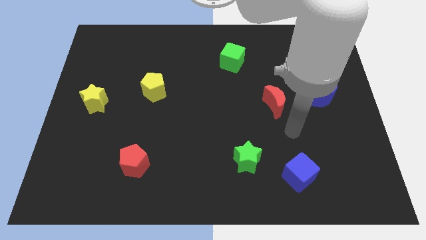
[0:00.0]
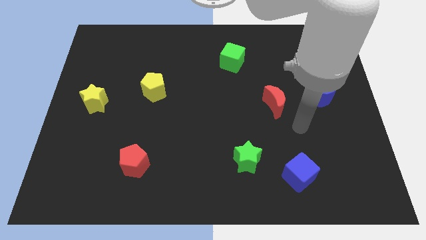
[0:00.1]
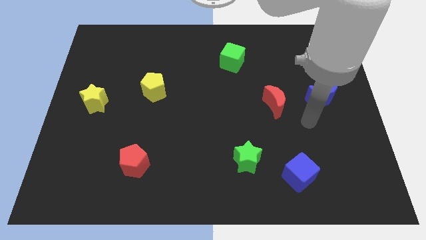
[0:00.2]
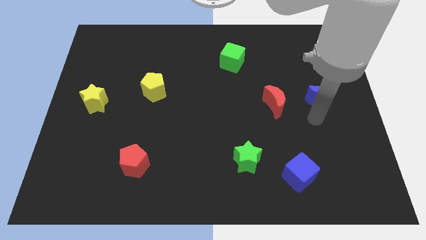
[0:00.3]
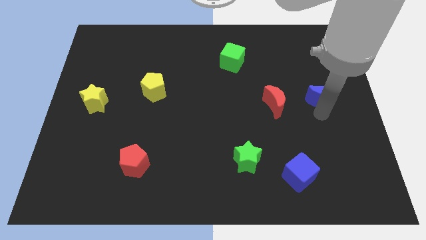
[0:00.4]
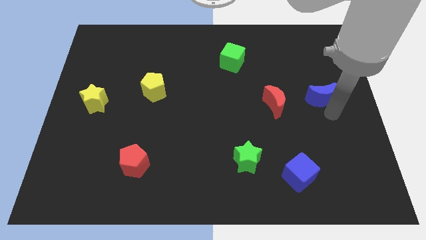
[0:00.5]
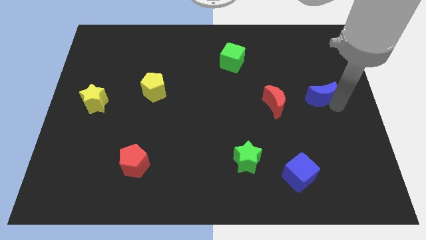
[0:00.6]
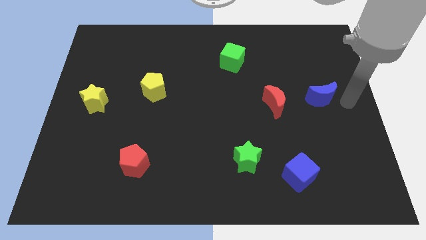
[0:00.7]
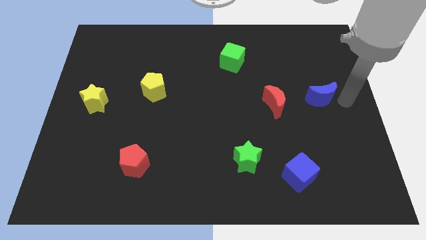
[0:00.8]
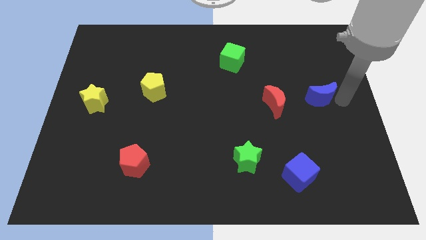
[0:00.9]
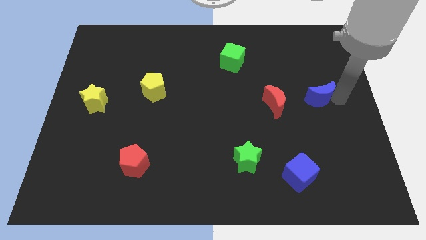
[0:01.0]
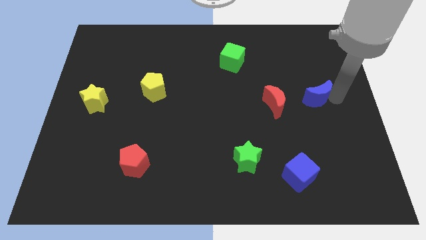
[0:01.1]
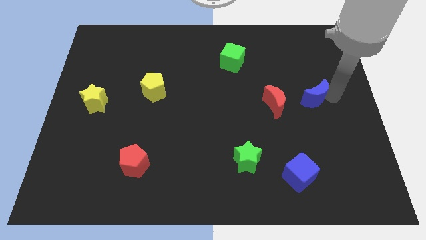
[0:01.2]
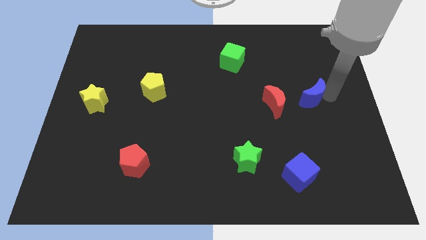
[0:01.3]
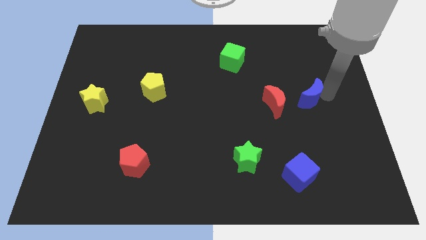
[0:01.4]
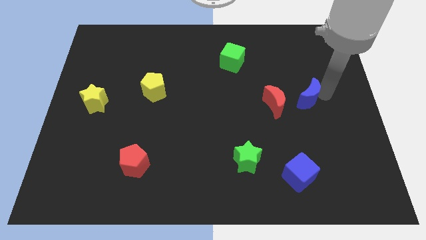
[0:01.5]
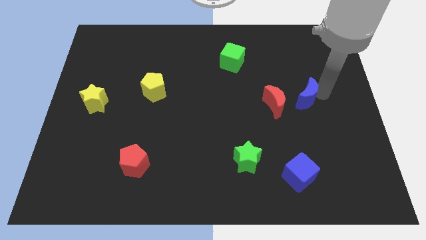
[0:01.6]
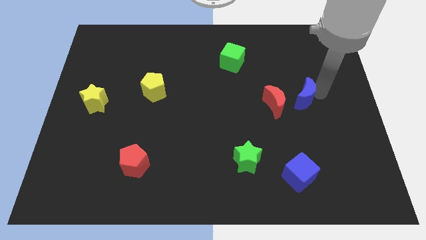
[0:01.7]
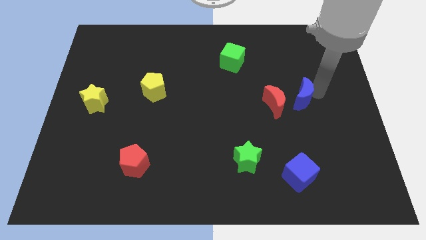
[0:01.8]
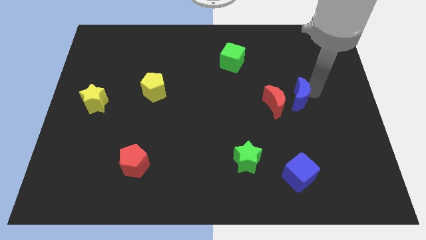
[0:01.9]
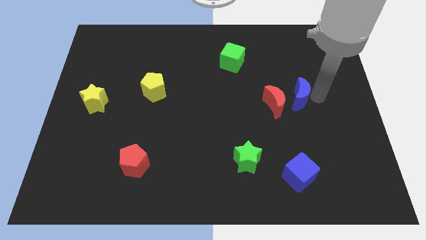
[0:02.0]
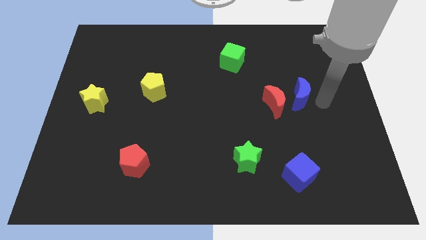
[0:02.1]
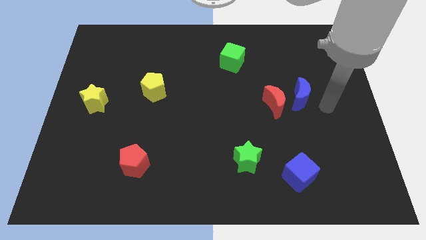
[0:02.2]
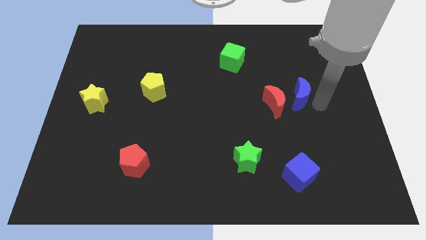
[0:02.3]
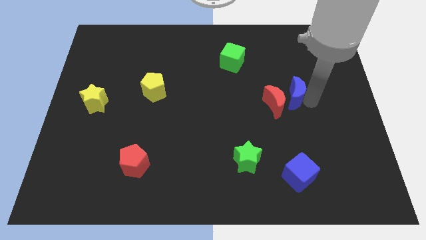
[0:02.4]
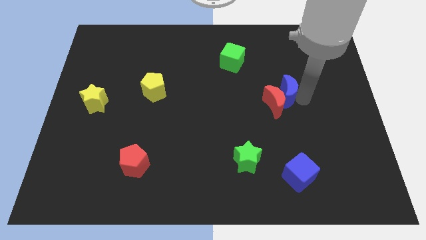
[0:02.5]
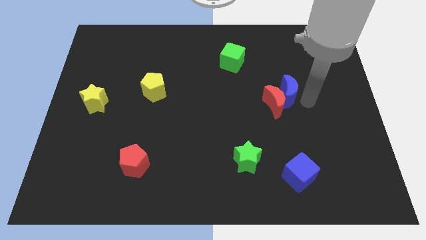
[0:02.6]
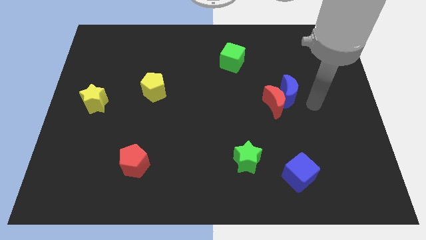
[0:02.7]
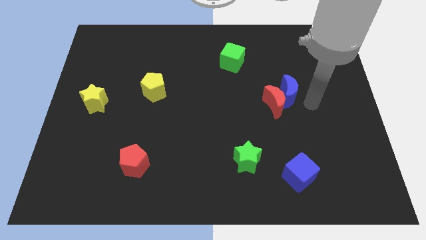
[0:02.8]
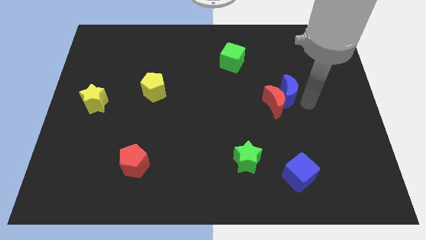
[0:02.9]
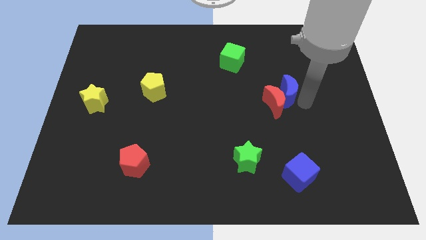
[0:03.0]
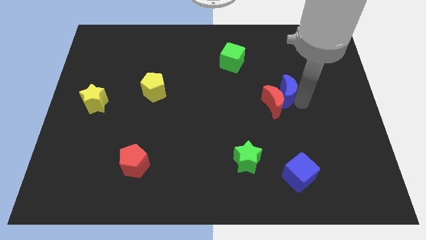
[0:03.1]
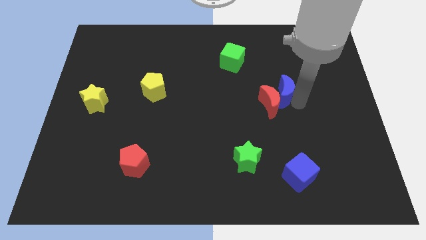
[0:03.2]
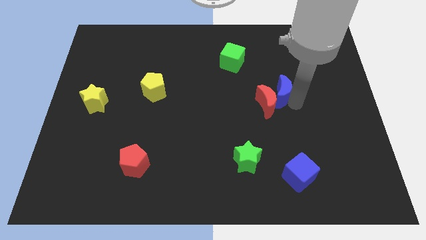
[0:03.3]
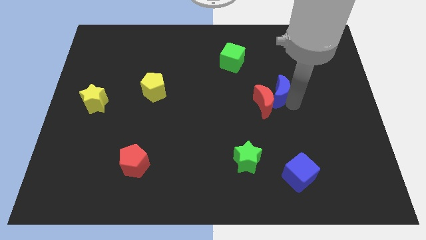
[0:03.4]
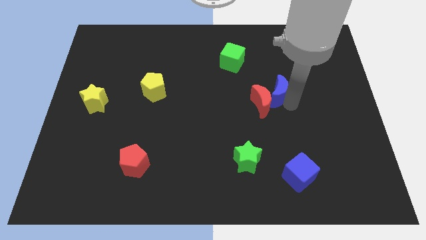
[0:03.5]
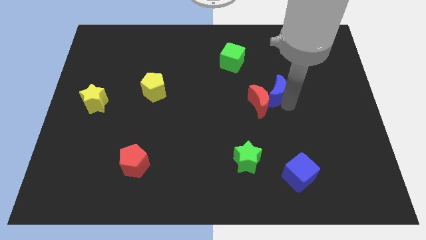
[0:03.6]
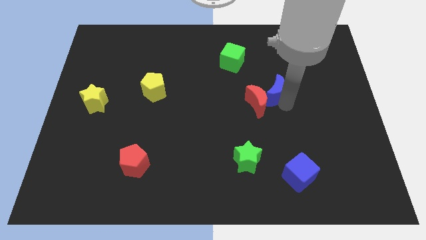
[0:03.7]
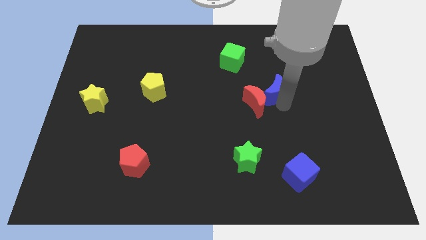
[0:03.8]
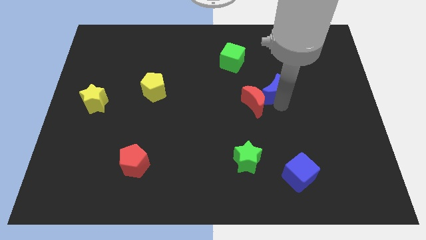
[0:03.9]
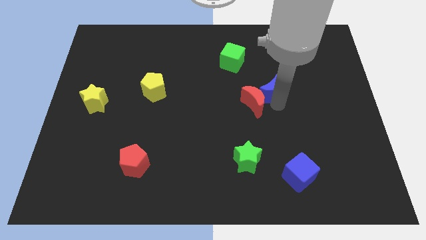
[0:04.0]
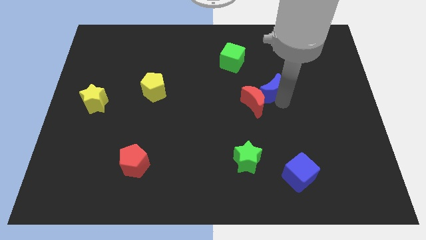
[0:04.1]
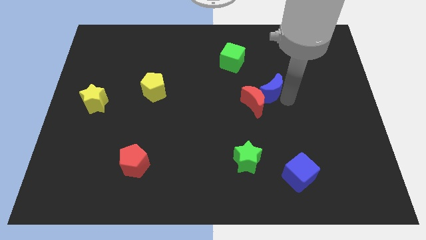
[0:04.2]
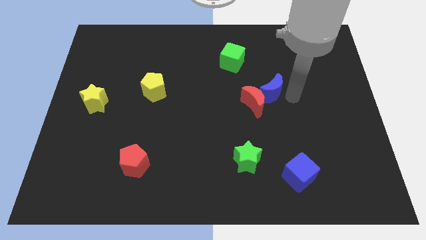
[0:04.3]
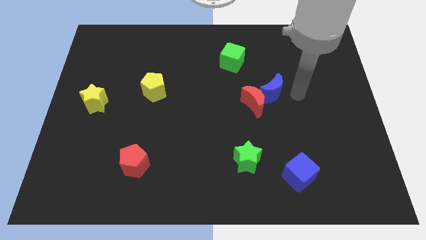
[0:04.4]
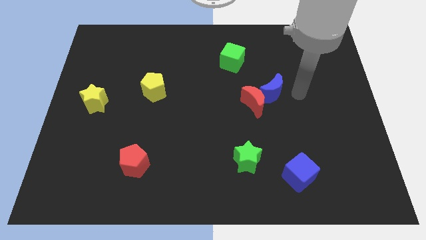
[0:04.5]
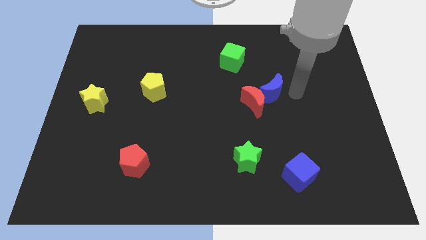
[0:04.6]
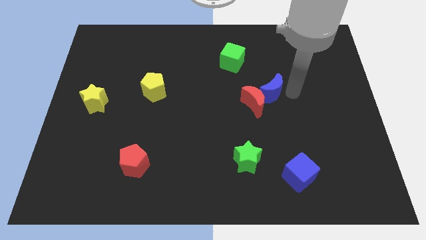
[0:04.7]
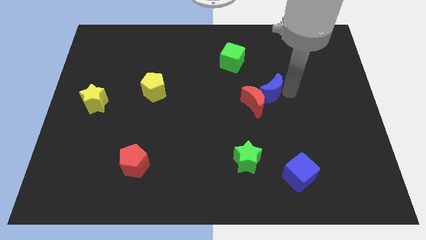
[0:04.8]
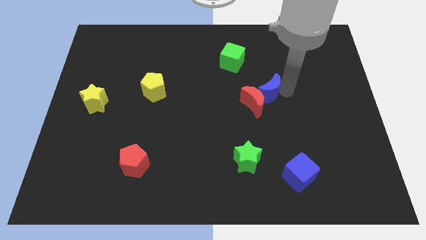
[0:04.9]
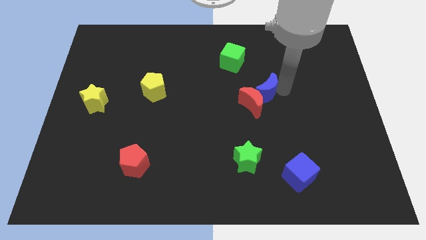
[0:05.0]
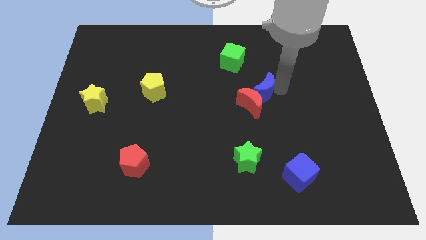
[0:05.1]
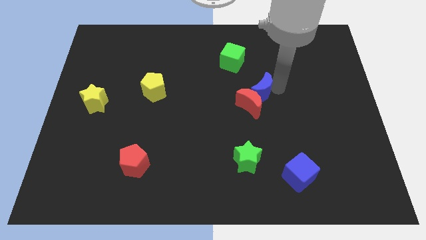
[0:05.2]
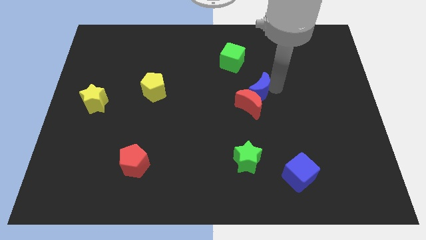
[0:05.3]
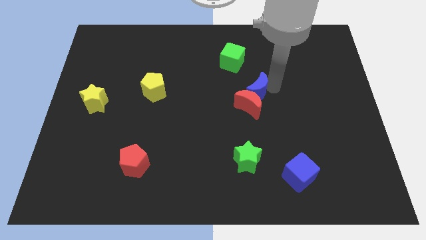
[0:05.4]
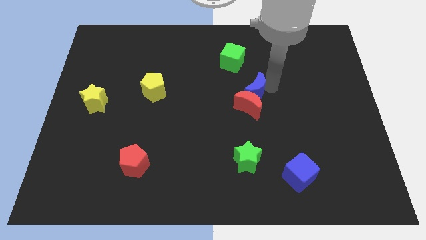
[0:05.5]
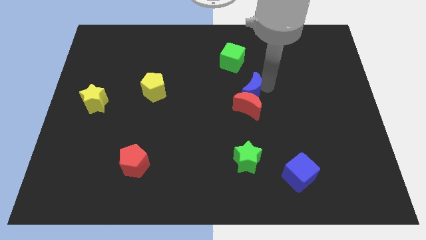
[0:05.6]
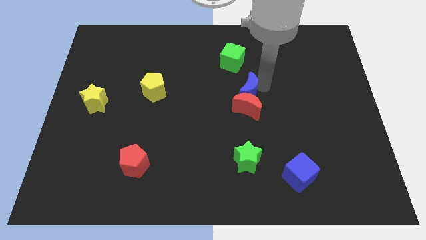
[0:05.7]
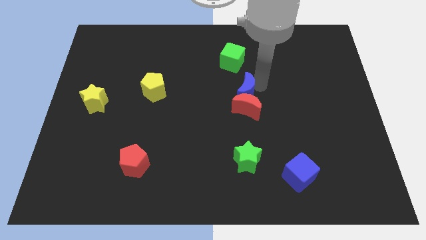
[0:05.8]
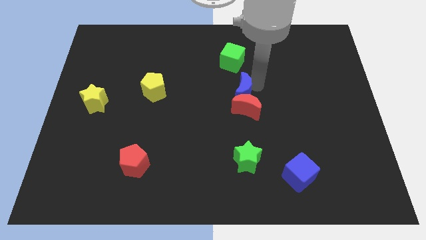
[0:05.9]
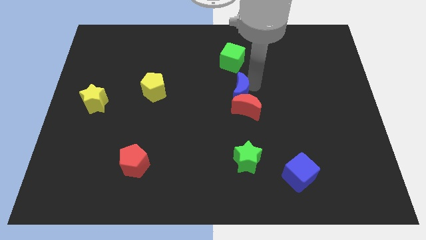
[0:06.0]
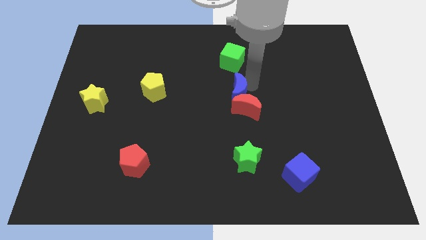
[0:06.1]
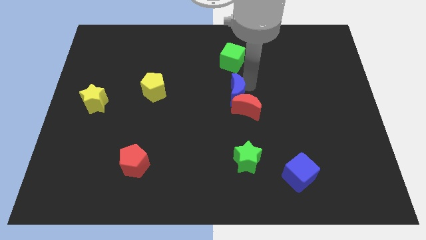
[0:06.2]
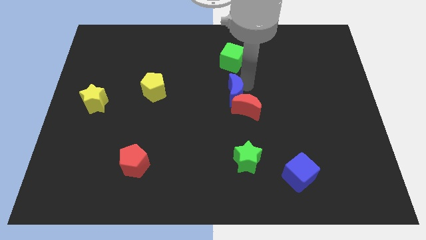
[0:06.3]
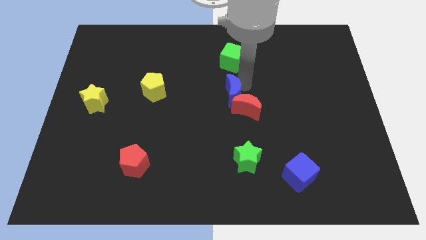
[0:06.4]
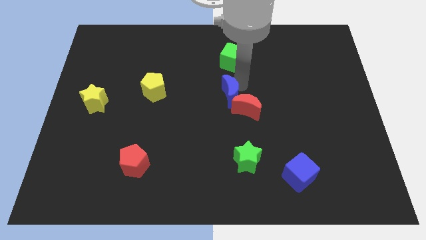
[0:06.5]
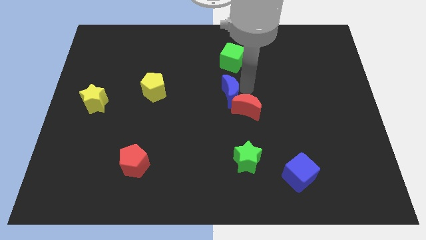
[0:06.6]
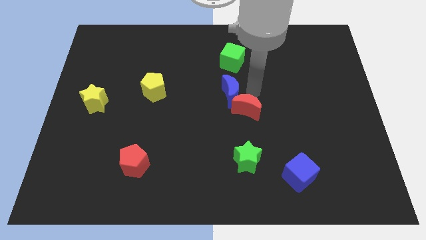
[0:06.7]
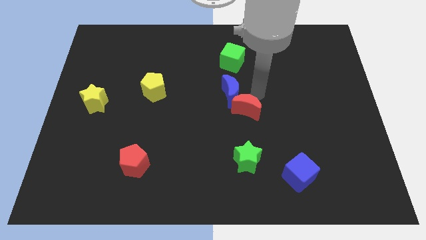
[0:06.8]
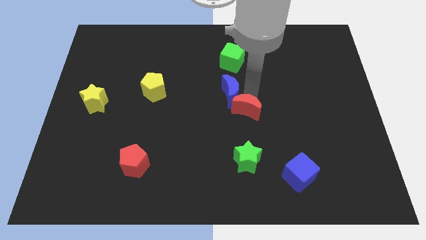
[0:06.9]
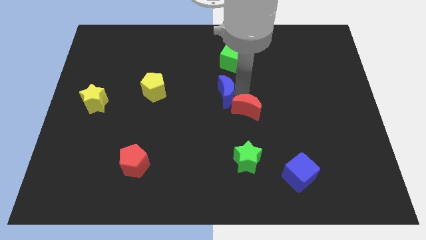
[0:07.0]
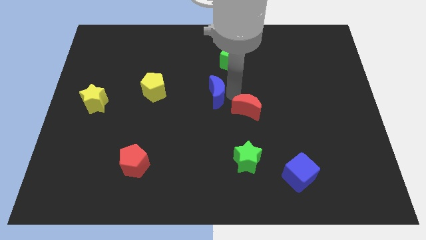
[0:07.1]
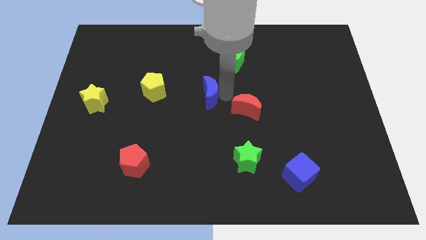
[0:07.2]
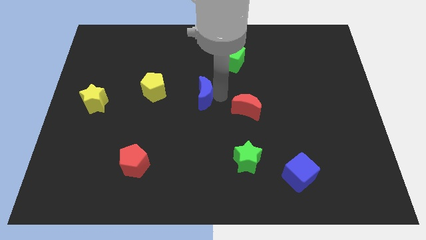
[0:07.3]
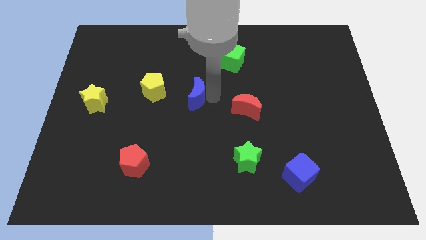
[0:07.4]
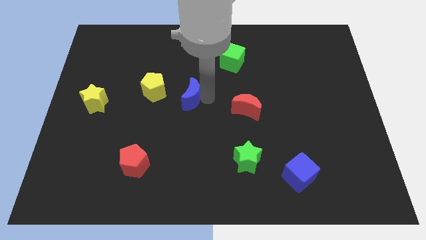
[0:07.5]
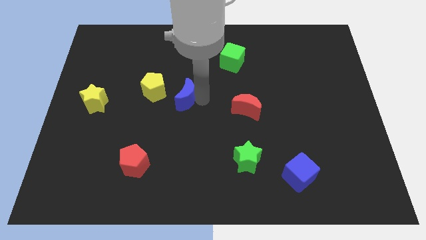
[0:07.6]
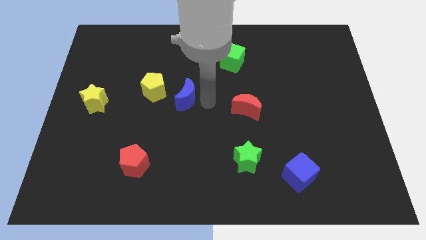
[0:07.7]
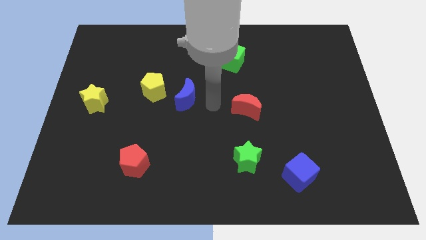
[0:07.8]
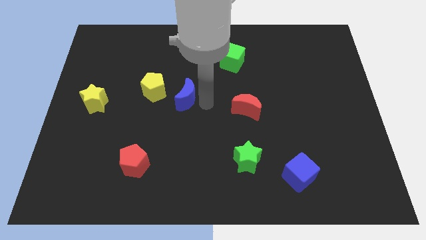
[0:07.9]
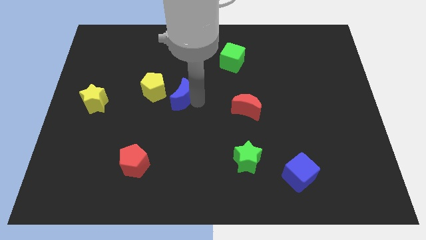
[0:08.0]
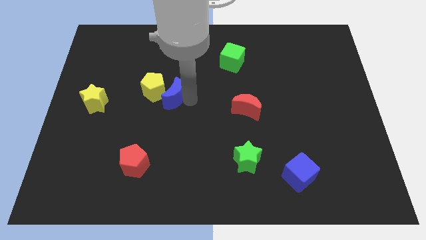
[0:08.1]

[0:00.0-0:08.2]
put the blue moon towards the yellow pentagon
